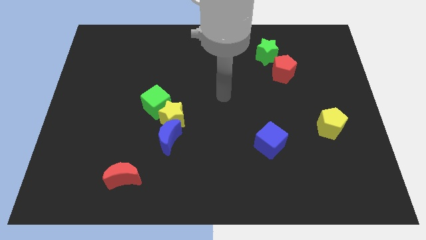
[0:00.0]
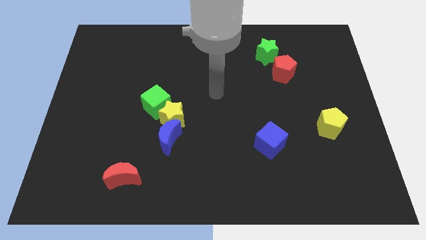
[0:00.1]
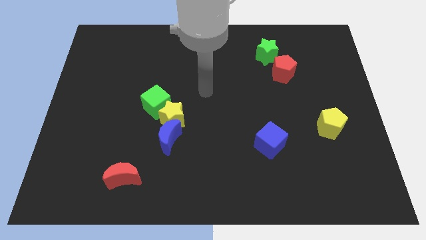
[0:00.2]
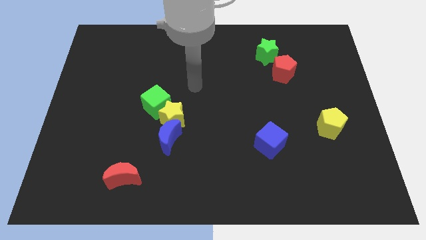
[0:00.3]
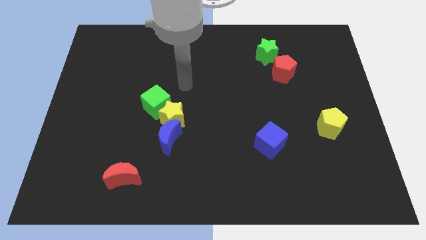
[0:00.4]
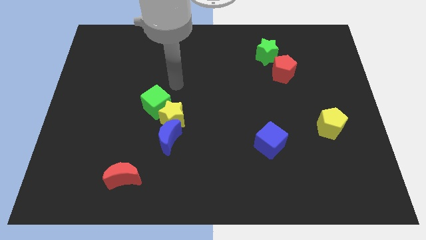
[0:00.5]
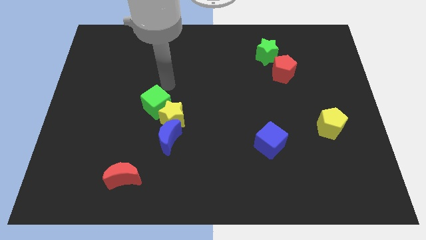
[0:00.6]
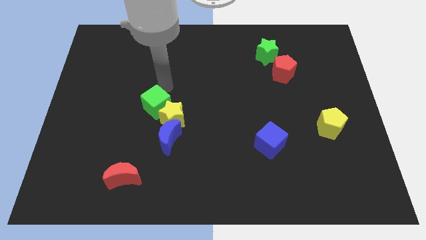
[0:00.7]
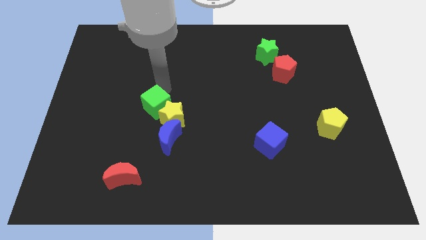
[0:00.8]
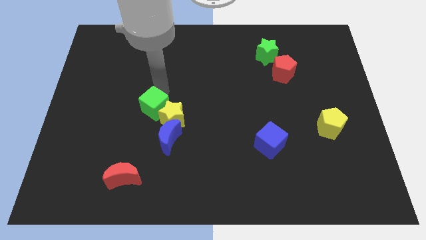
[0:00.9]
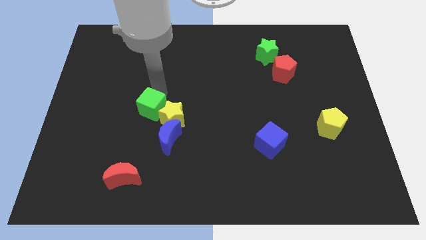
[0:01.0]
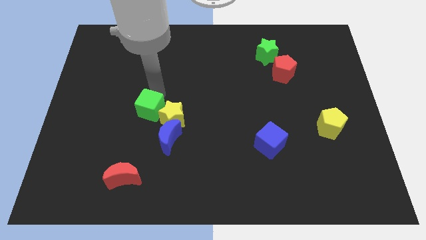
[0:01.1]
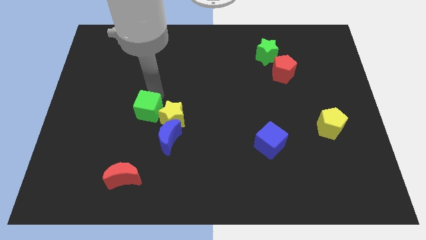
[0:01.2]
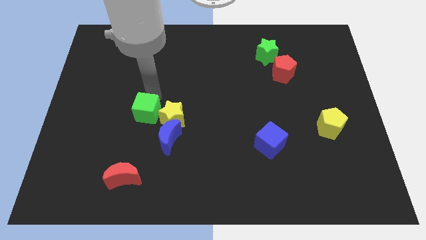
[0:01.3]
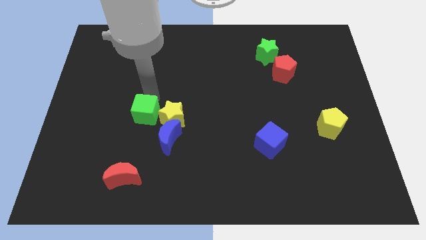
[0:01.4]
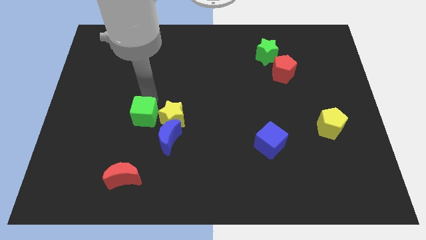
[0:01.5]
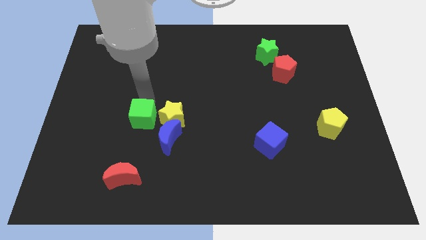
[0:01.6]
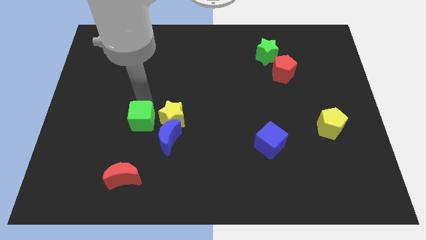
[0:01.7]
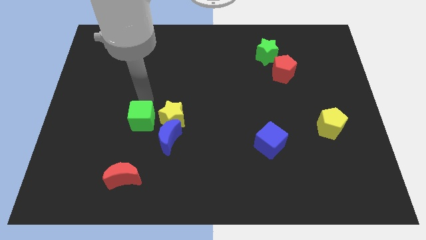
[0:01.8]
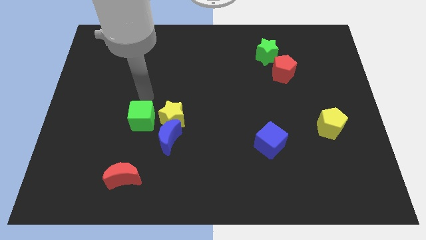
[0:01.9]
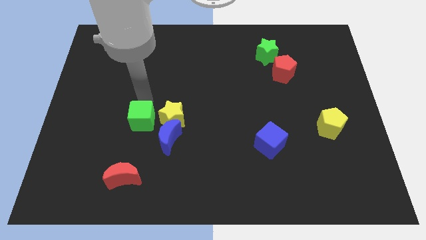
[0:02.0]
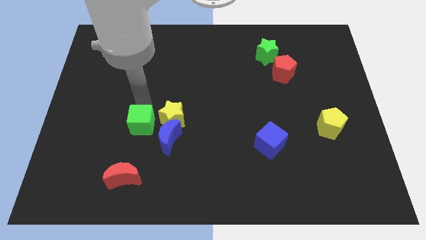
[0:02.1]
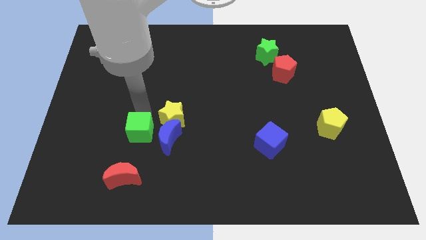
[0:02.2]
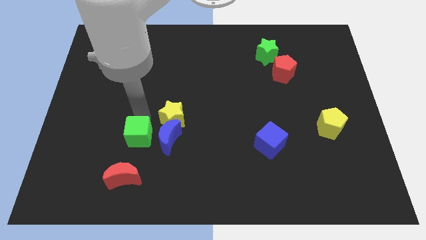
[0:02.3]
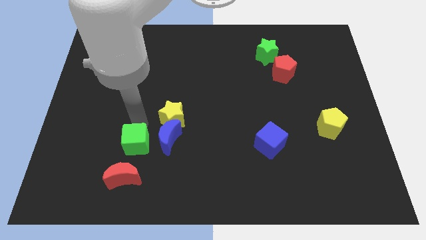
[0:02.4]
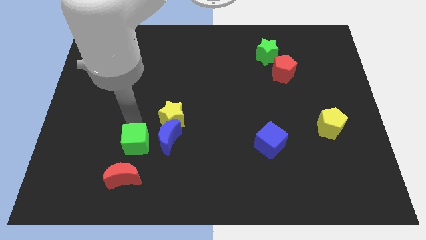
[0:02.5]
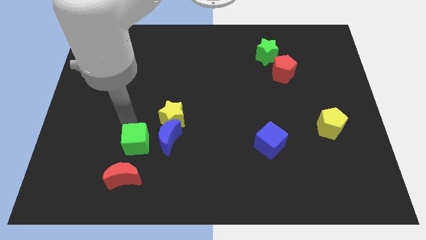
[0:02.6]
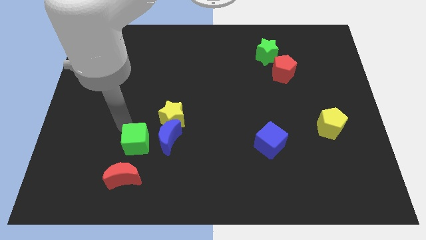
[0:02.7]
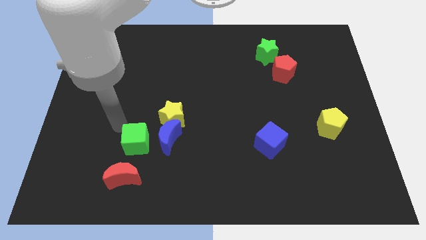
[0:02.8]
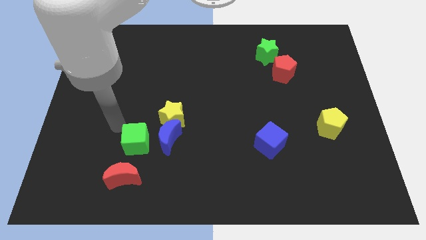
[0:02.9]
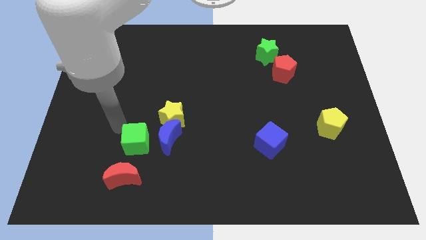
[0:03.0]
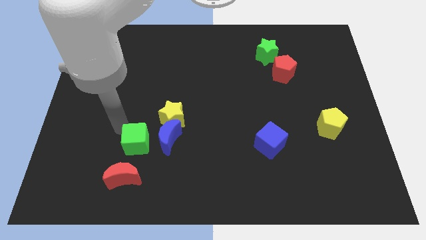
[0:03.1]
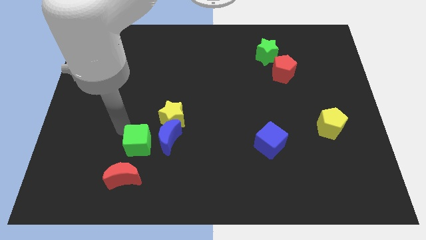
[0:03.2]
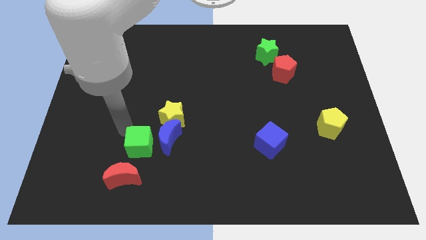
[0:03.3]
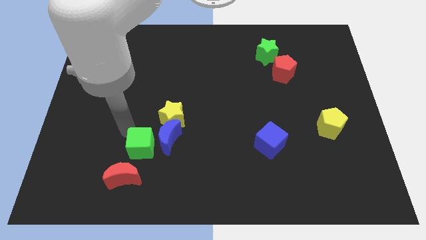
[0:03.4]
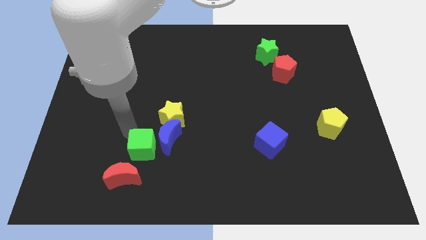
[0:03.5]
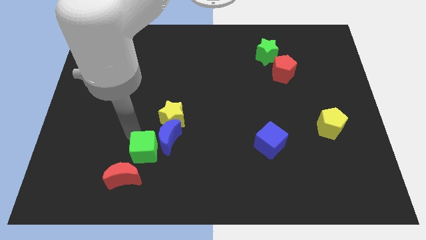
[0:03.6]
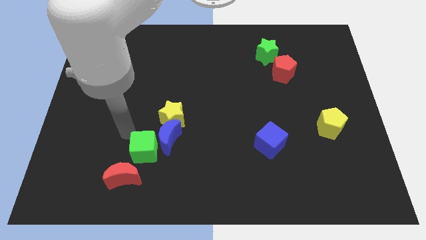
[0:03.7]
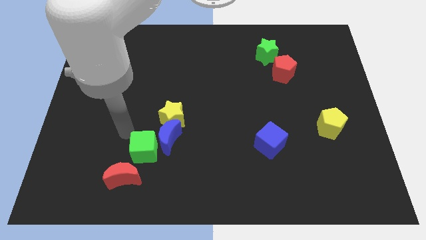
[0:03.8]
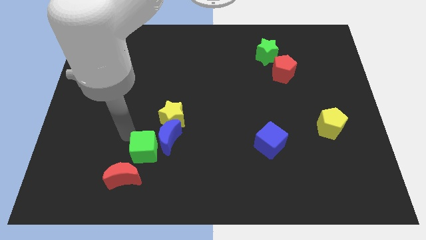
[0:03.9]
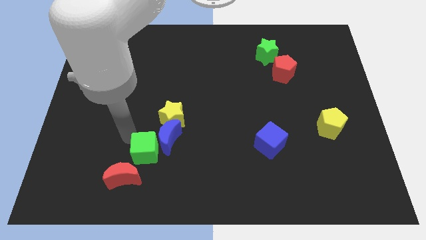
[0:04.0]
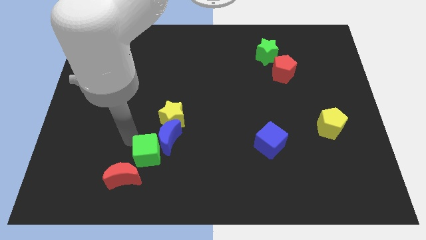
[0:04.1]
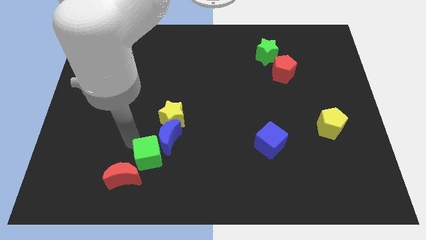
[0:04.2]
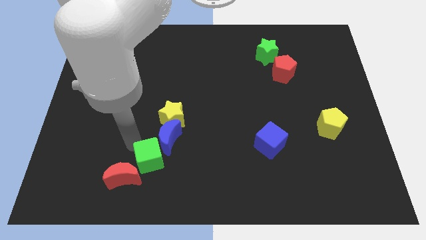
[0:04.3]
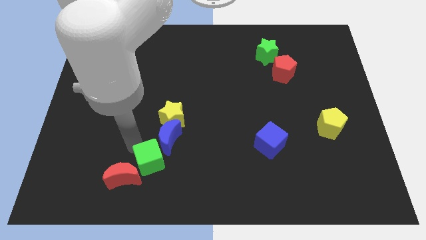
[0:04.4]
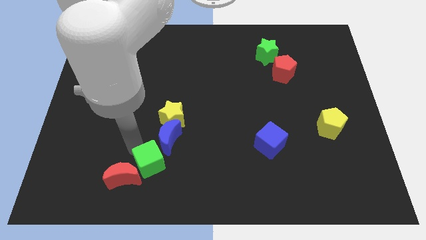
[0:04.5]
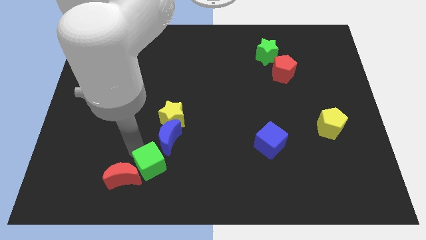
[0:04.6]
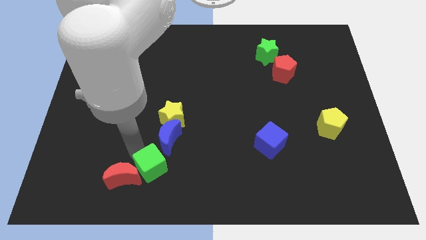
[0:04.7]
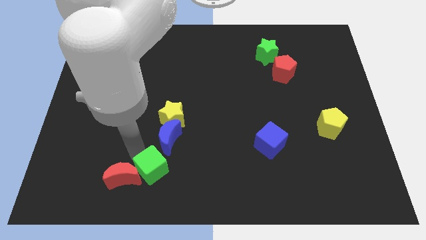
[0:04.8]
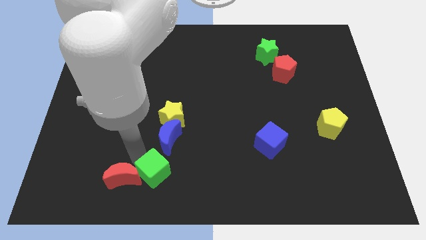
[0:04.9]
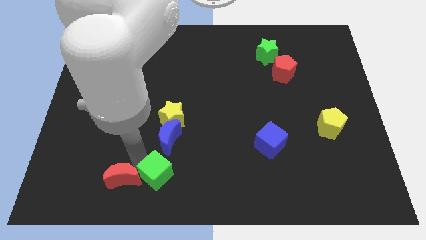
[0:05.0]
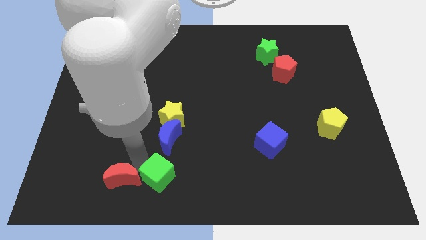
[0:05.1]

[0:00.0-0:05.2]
push the green cube to the bottom side

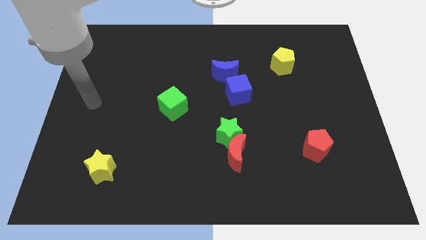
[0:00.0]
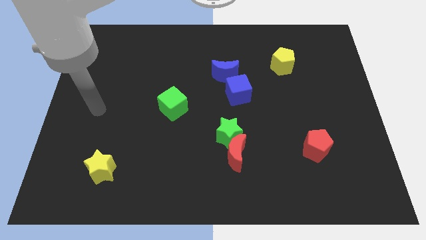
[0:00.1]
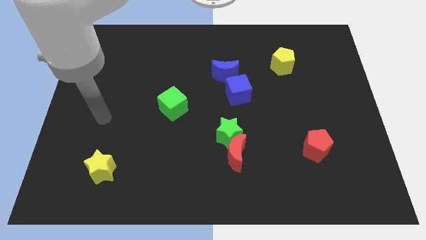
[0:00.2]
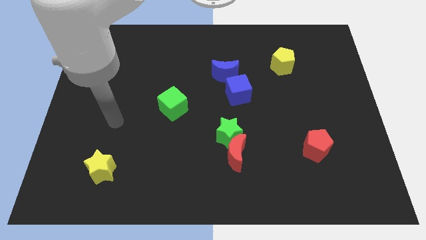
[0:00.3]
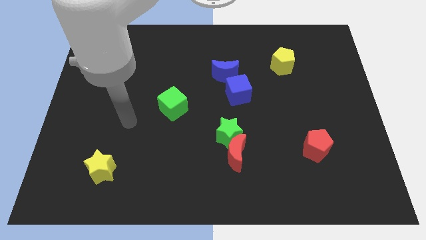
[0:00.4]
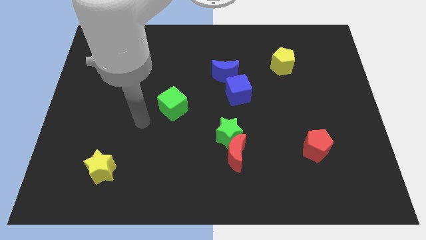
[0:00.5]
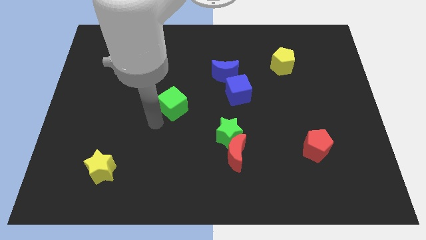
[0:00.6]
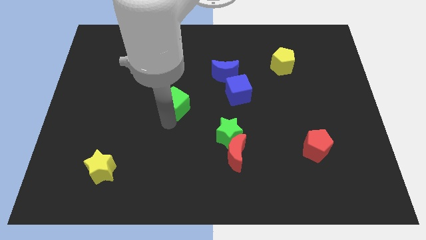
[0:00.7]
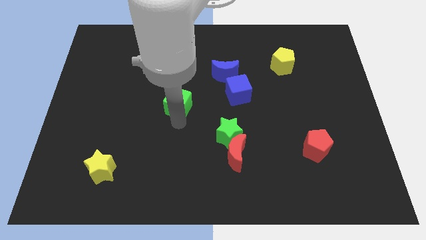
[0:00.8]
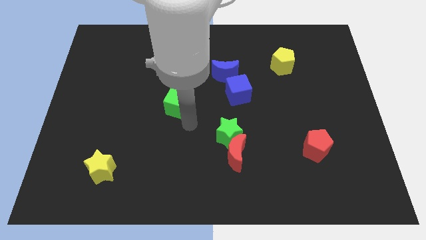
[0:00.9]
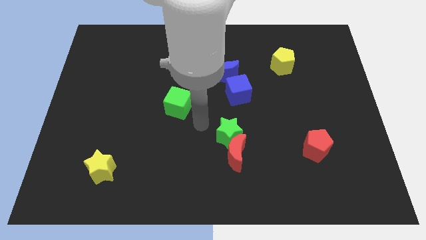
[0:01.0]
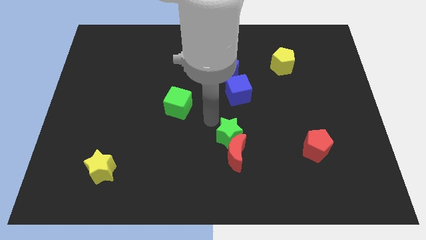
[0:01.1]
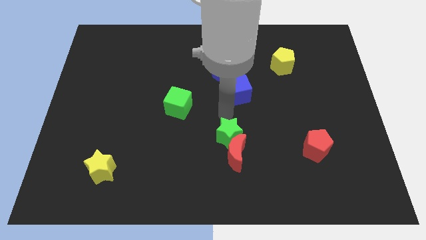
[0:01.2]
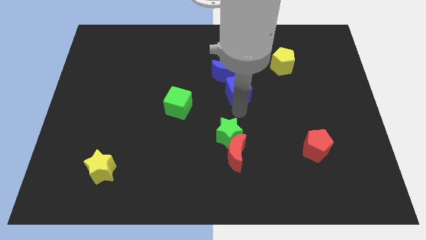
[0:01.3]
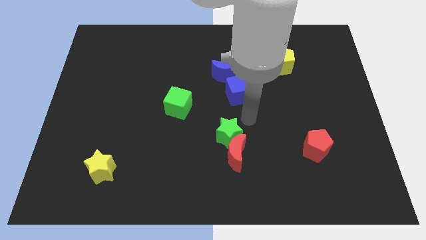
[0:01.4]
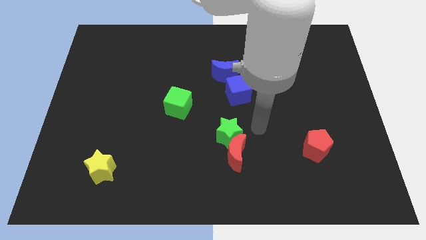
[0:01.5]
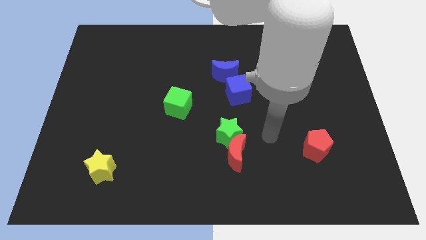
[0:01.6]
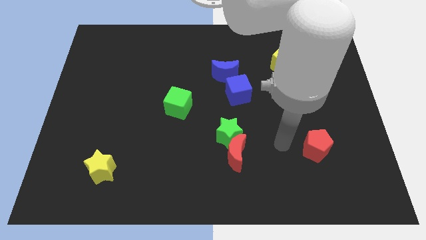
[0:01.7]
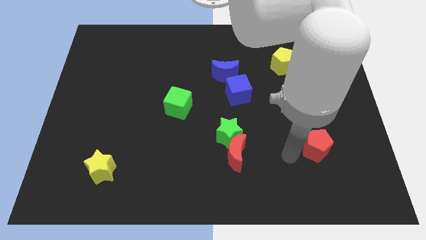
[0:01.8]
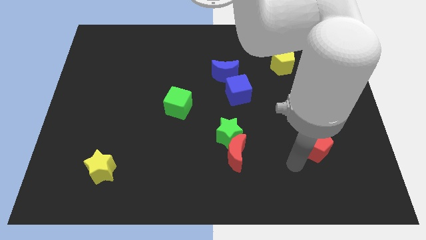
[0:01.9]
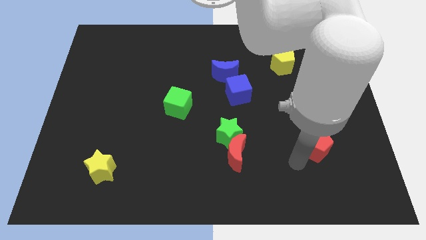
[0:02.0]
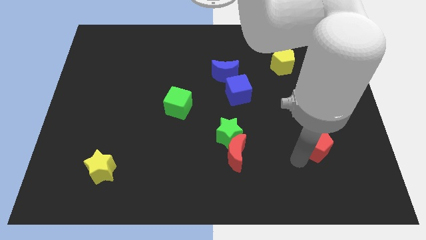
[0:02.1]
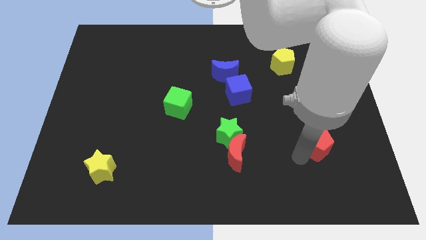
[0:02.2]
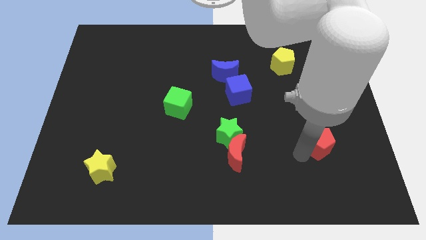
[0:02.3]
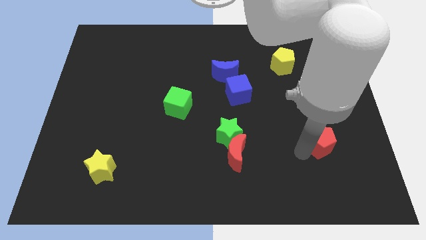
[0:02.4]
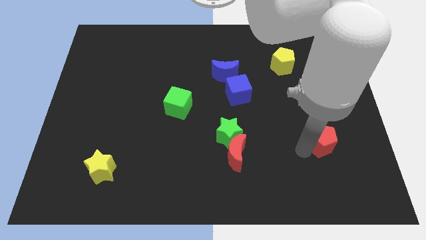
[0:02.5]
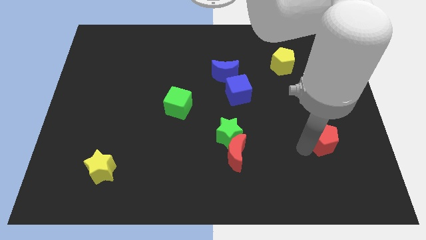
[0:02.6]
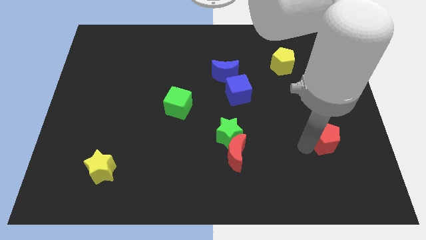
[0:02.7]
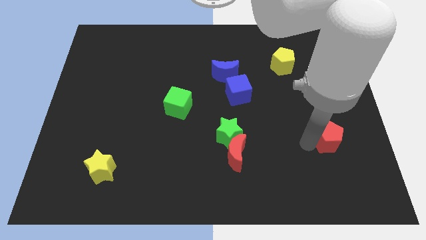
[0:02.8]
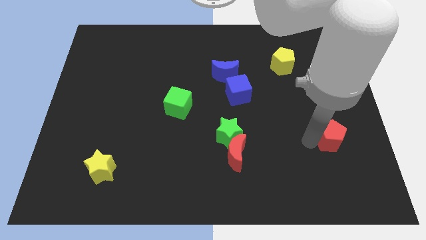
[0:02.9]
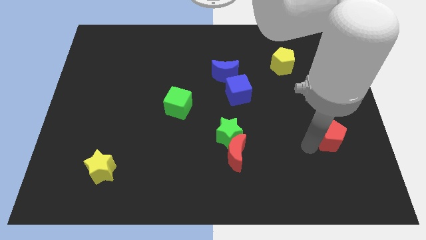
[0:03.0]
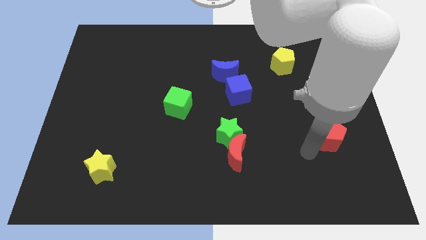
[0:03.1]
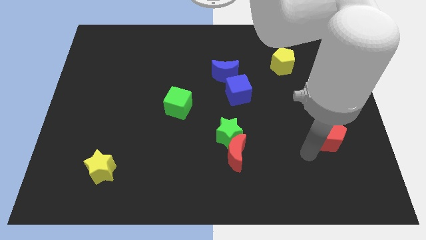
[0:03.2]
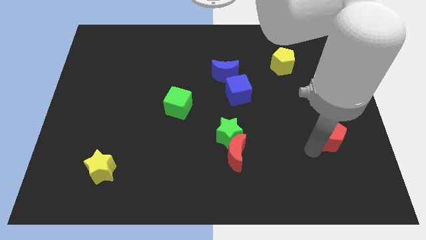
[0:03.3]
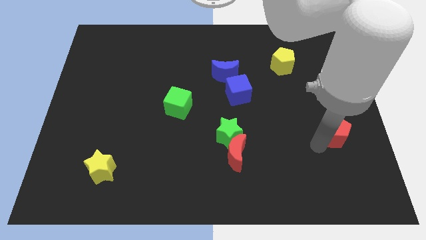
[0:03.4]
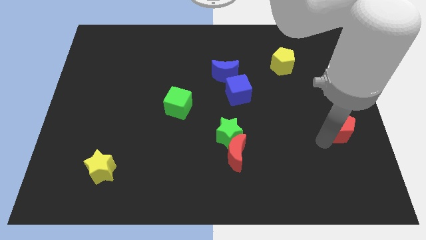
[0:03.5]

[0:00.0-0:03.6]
move the red pentagon to the right side of the board
